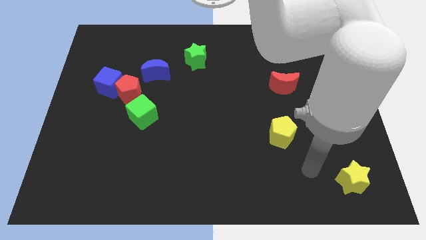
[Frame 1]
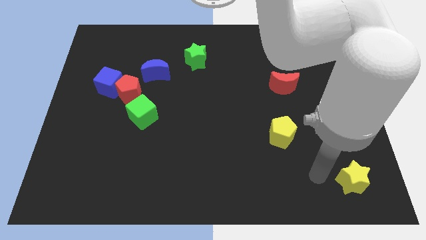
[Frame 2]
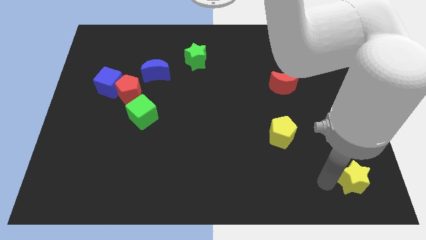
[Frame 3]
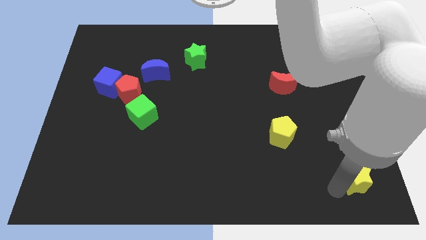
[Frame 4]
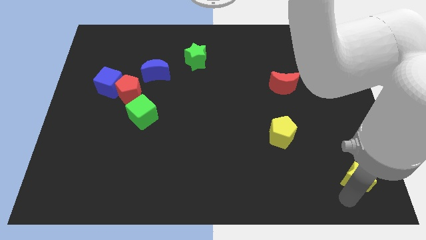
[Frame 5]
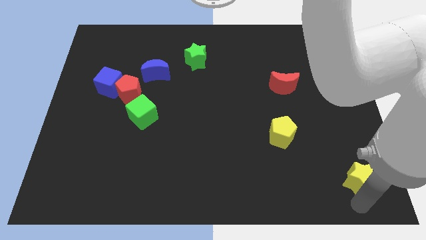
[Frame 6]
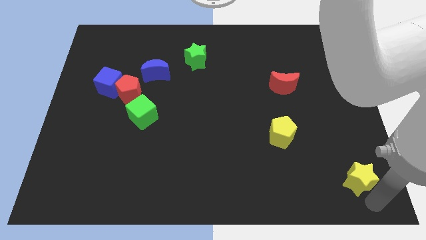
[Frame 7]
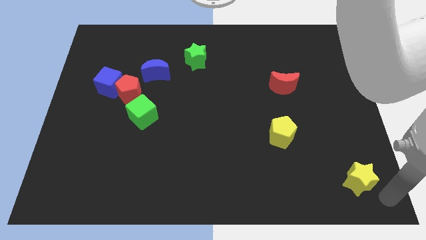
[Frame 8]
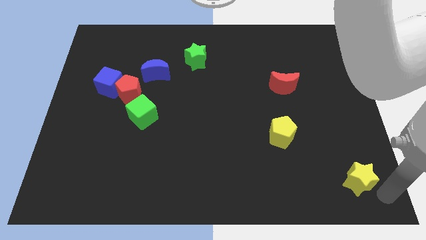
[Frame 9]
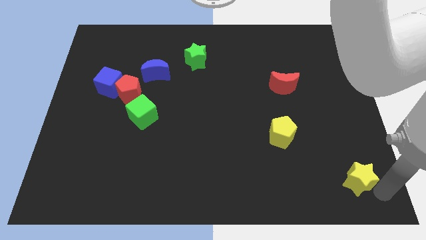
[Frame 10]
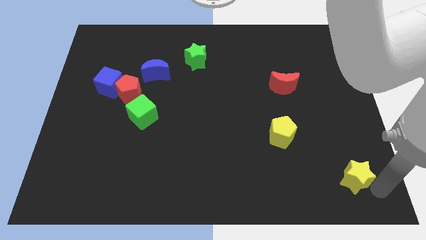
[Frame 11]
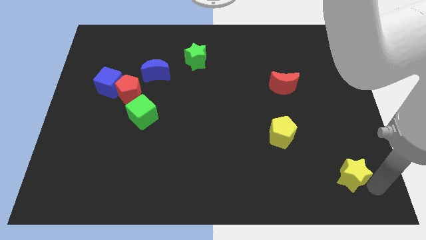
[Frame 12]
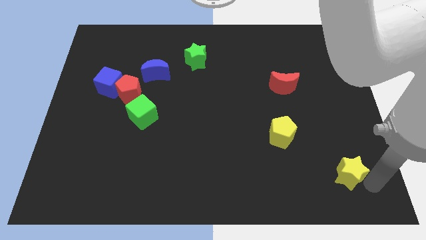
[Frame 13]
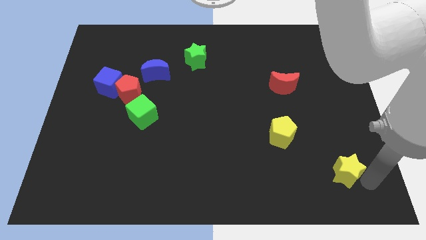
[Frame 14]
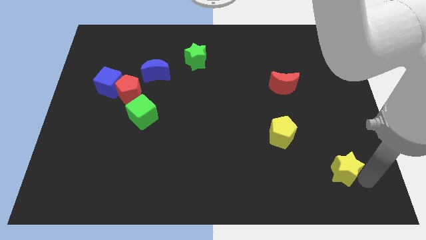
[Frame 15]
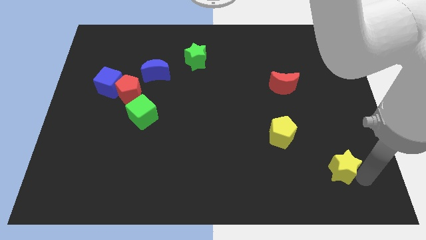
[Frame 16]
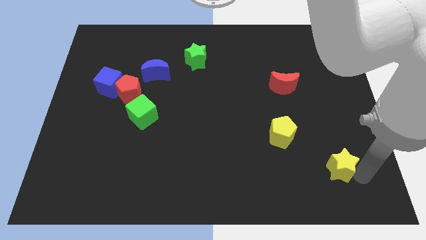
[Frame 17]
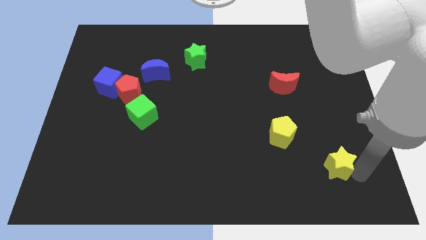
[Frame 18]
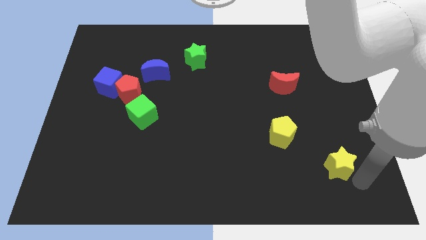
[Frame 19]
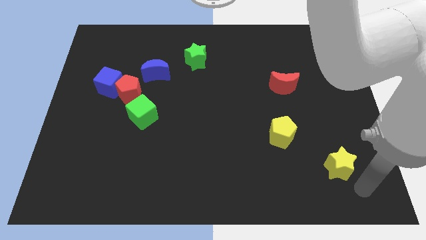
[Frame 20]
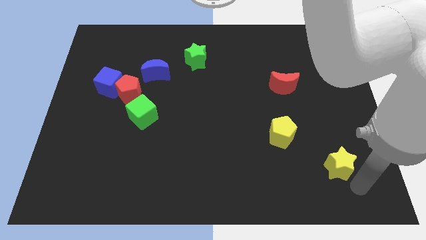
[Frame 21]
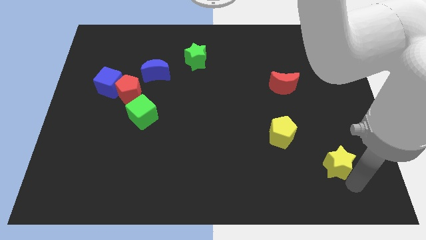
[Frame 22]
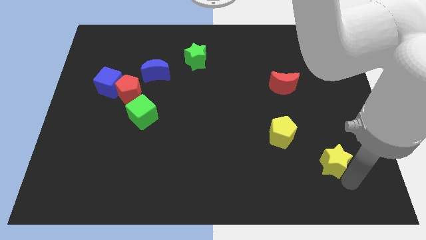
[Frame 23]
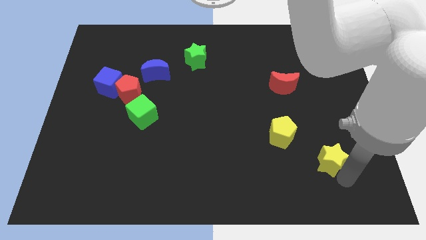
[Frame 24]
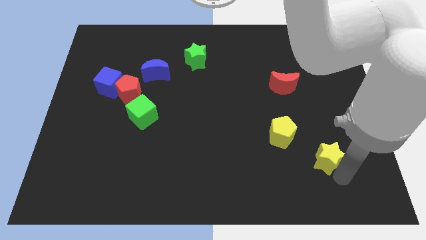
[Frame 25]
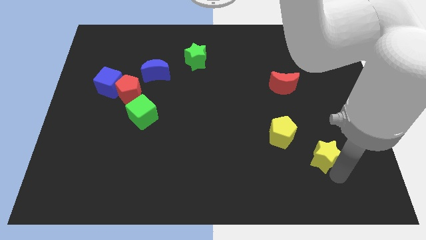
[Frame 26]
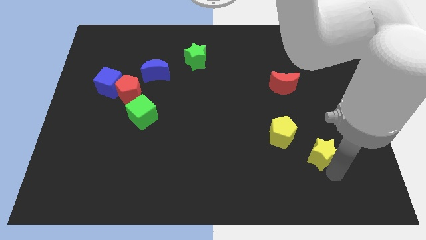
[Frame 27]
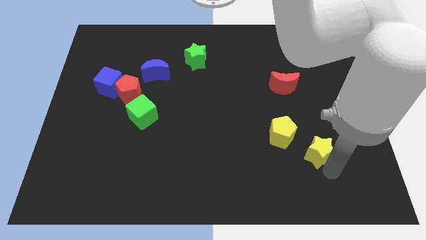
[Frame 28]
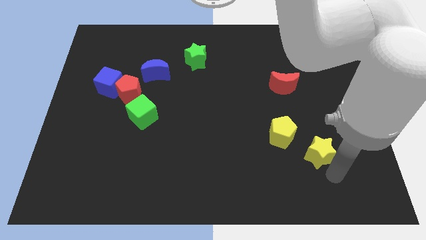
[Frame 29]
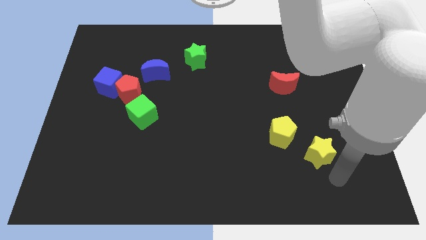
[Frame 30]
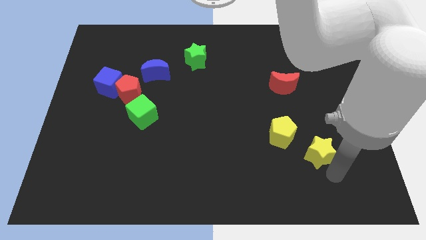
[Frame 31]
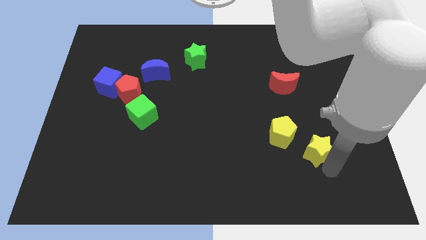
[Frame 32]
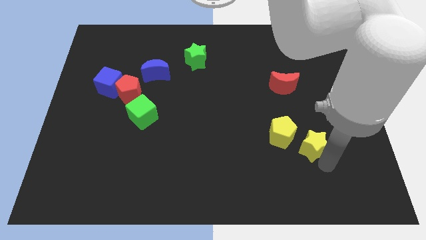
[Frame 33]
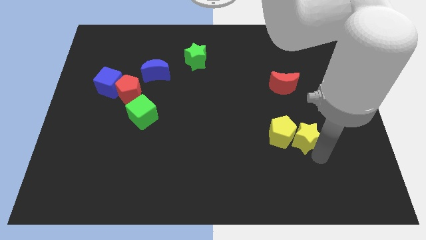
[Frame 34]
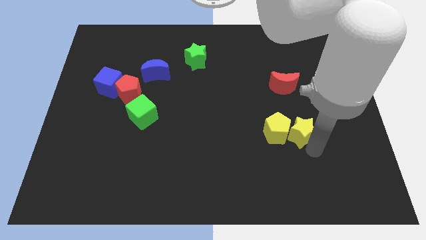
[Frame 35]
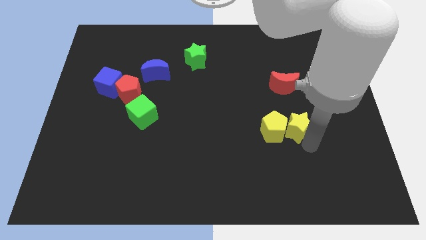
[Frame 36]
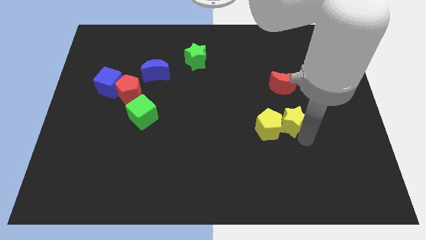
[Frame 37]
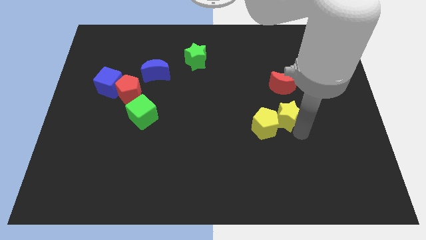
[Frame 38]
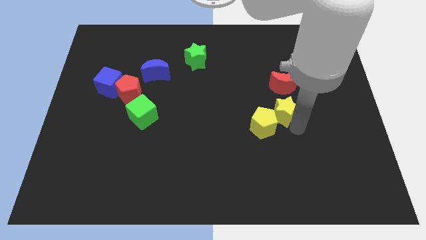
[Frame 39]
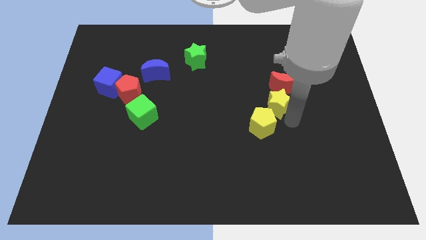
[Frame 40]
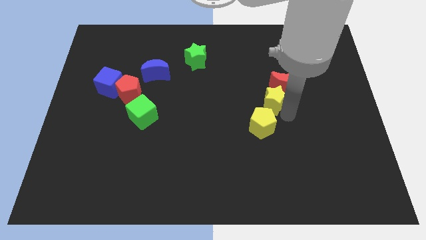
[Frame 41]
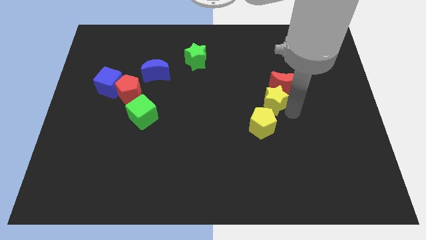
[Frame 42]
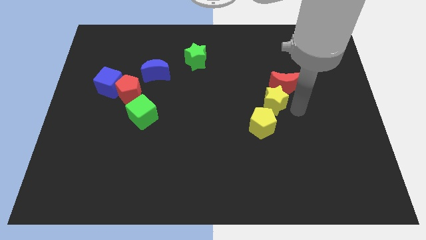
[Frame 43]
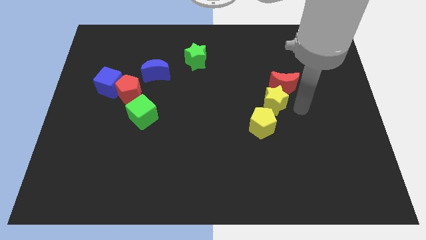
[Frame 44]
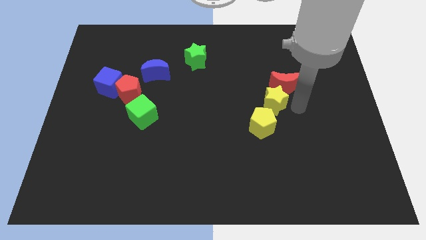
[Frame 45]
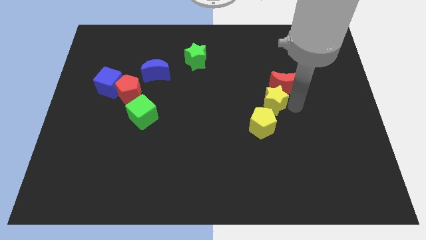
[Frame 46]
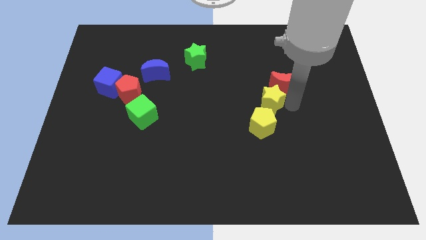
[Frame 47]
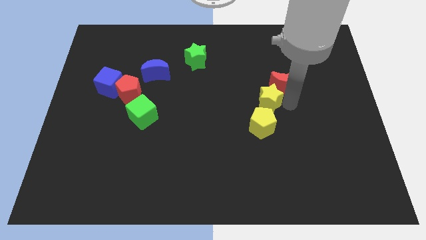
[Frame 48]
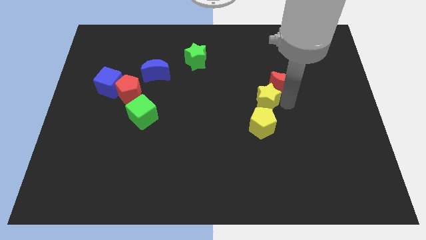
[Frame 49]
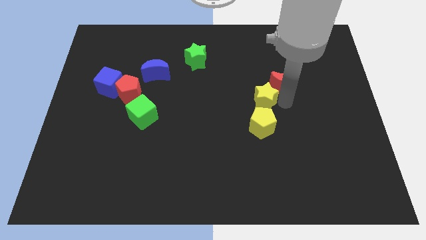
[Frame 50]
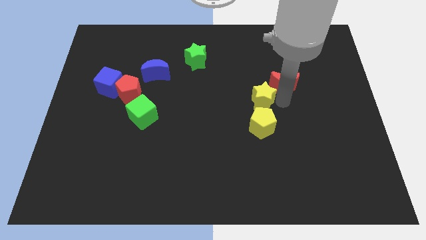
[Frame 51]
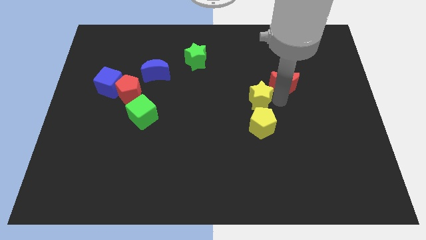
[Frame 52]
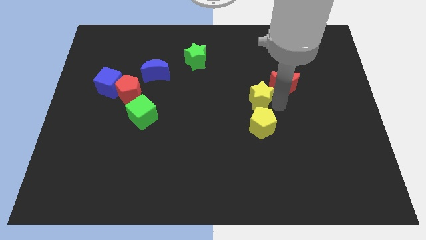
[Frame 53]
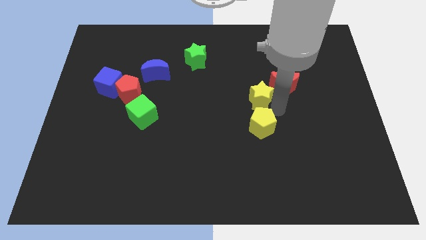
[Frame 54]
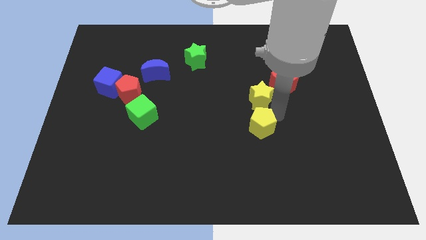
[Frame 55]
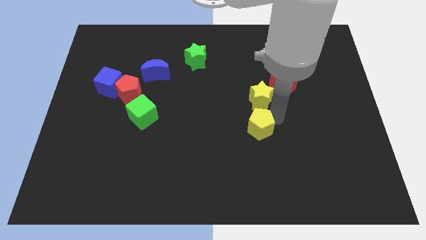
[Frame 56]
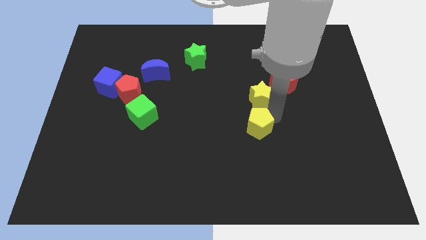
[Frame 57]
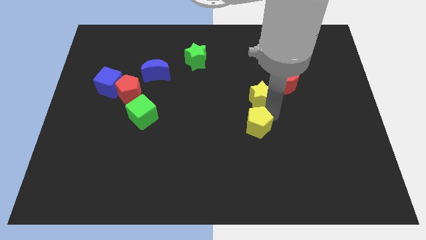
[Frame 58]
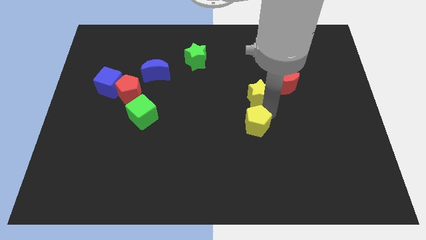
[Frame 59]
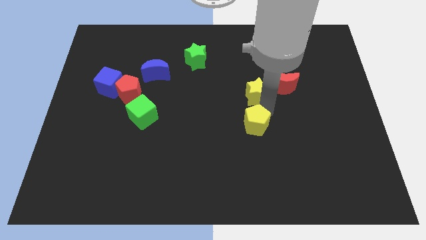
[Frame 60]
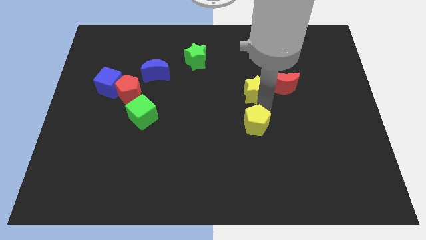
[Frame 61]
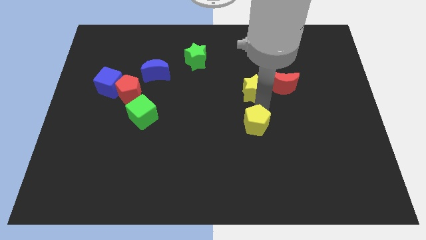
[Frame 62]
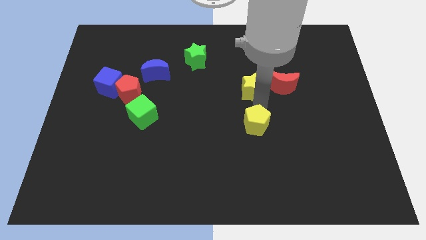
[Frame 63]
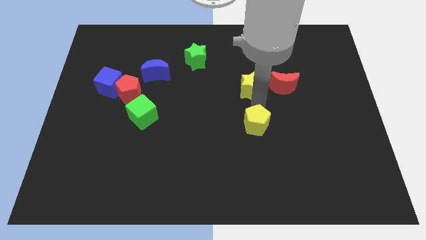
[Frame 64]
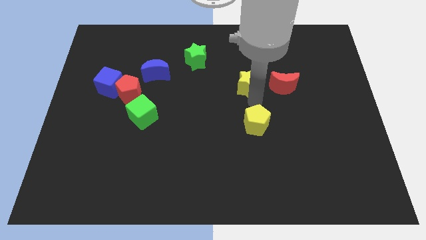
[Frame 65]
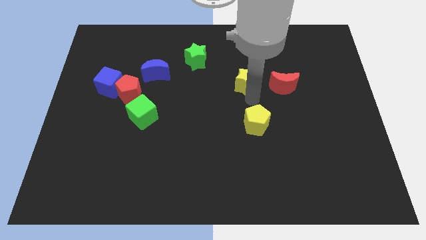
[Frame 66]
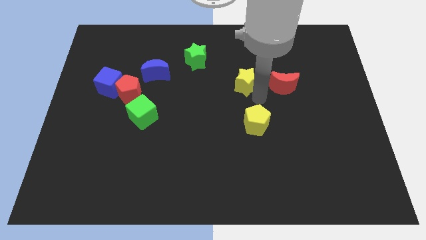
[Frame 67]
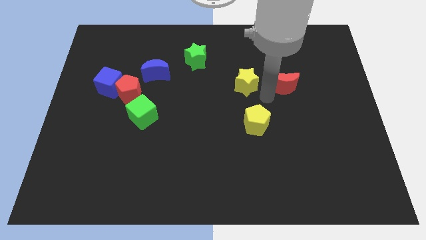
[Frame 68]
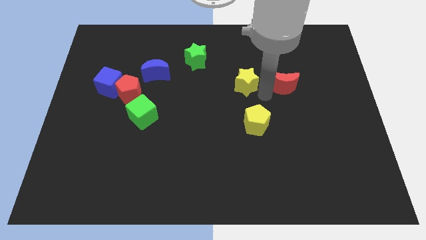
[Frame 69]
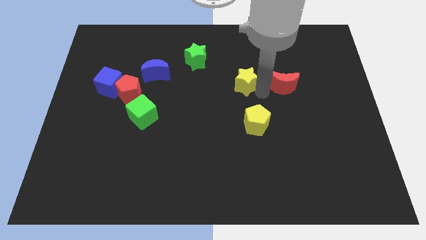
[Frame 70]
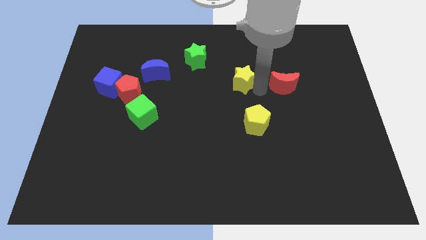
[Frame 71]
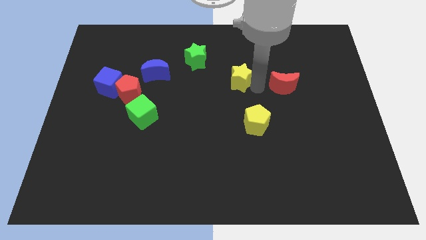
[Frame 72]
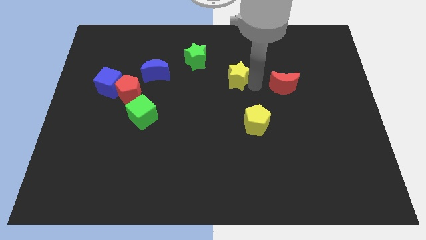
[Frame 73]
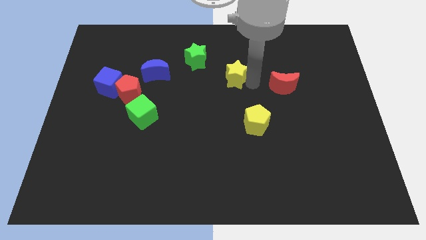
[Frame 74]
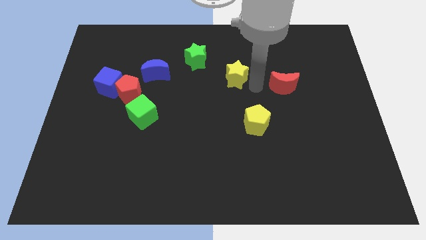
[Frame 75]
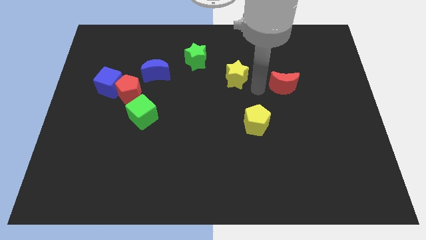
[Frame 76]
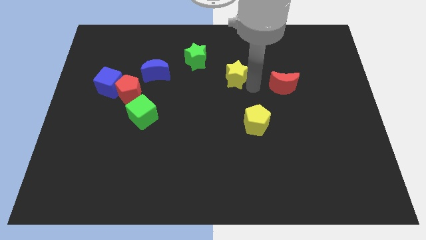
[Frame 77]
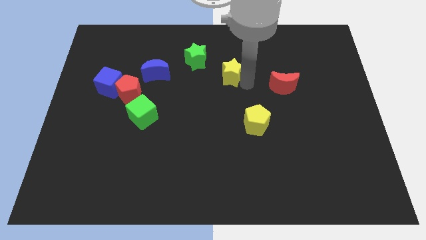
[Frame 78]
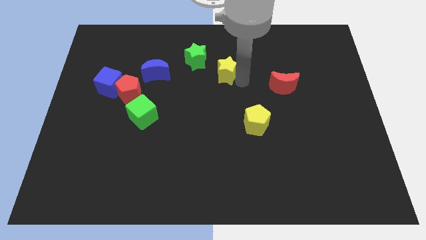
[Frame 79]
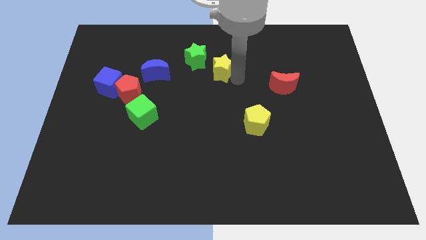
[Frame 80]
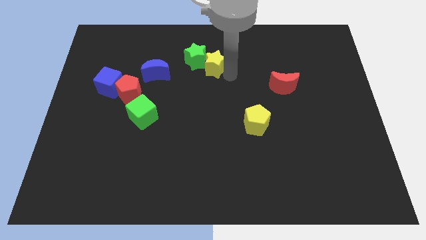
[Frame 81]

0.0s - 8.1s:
slide the yellow star next to the green star
